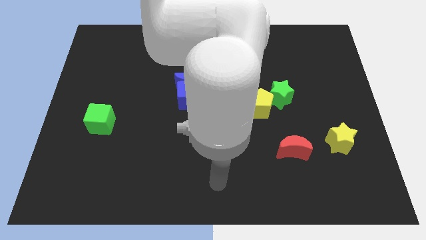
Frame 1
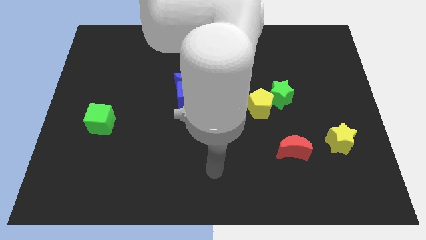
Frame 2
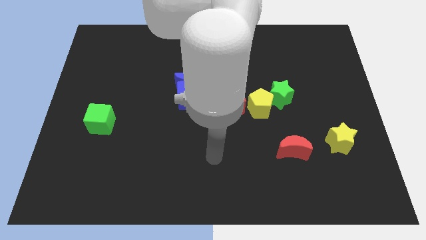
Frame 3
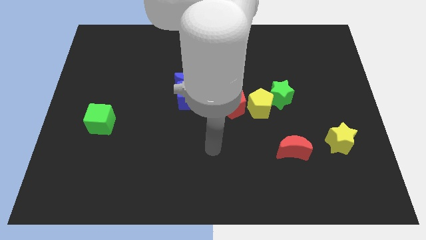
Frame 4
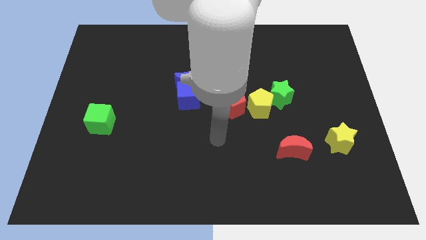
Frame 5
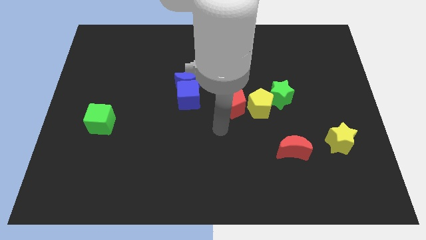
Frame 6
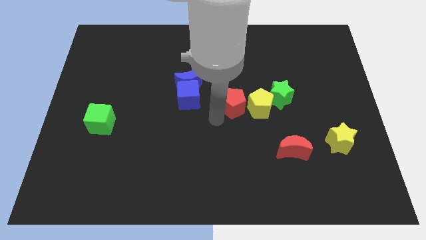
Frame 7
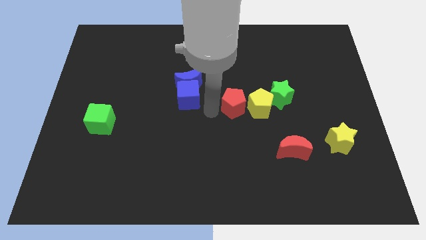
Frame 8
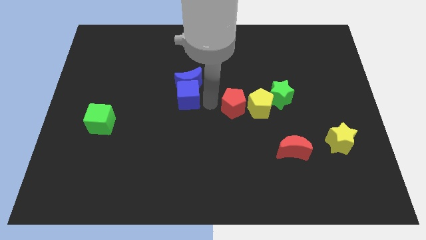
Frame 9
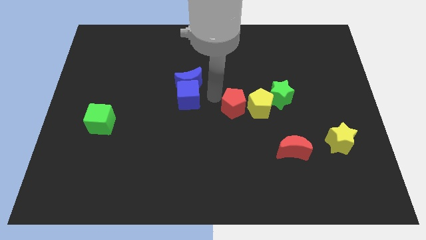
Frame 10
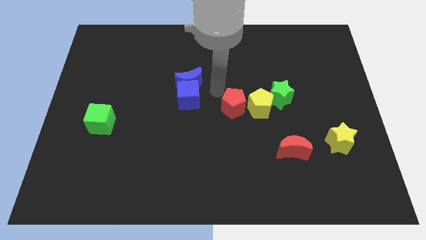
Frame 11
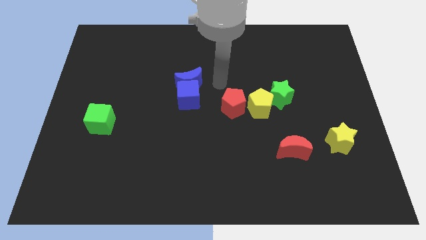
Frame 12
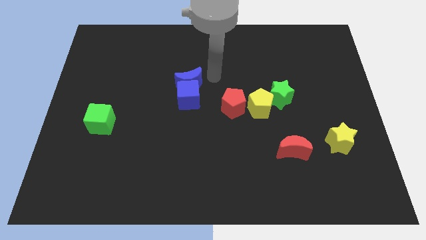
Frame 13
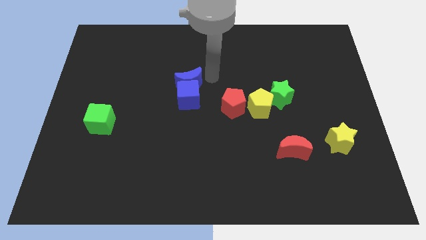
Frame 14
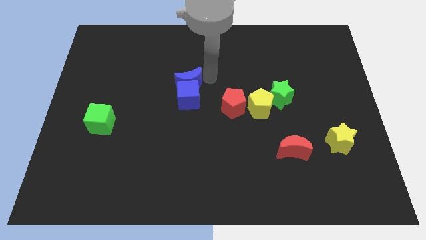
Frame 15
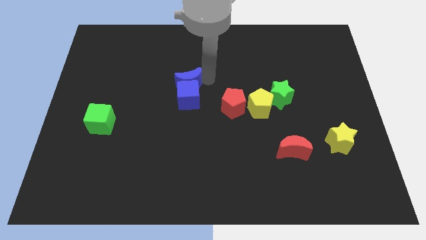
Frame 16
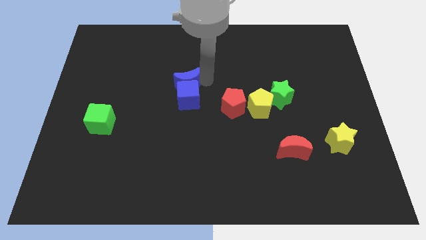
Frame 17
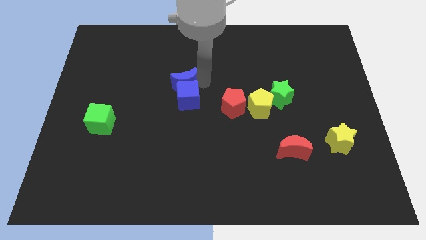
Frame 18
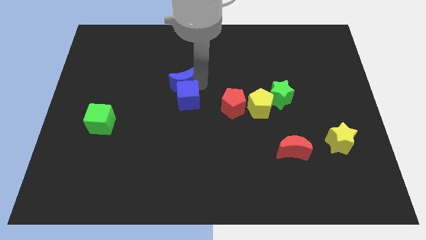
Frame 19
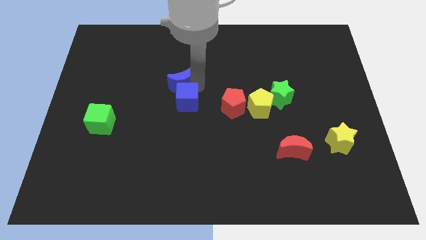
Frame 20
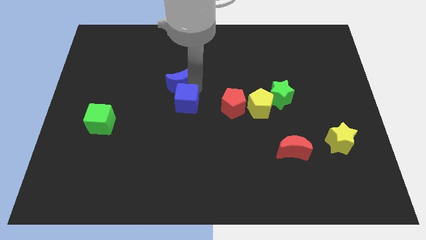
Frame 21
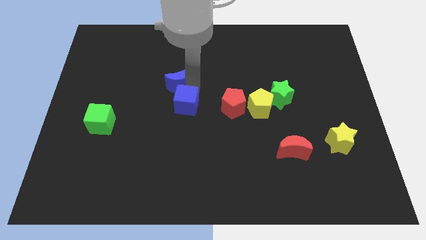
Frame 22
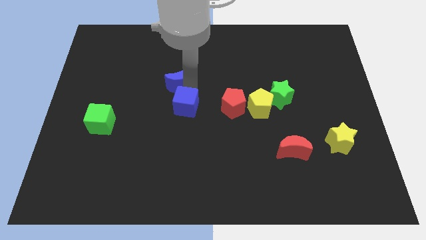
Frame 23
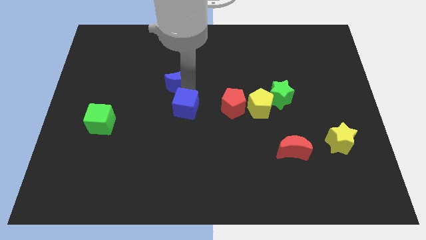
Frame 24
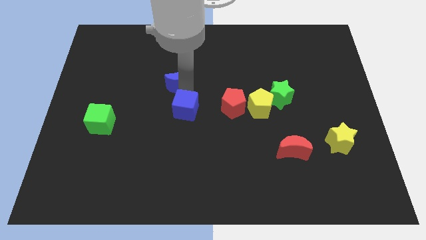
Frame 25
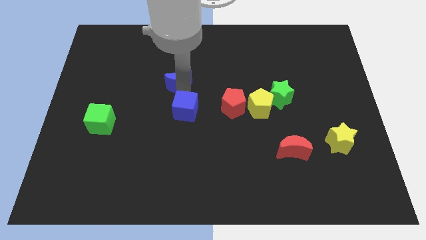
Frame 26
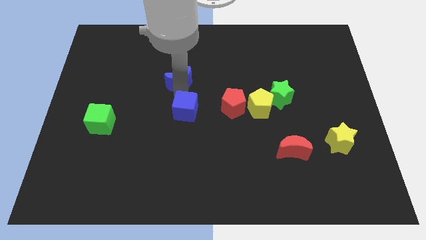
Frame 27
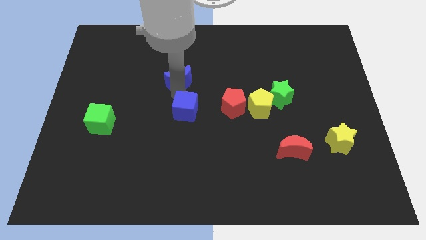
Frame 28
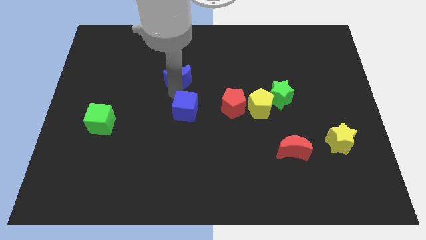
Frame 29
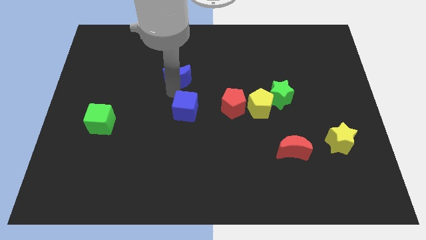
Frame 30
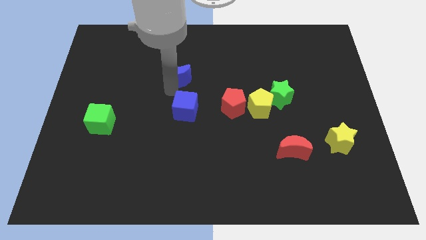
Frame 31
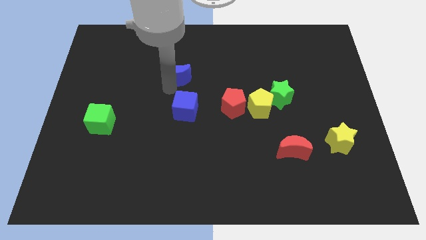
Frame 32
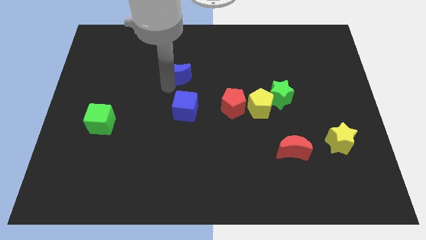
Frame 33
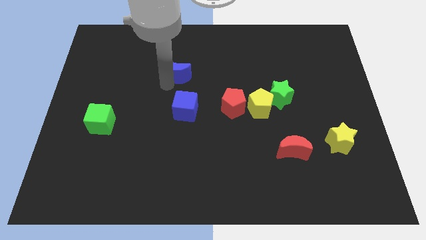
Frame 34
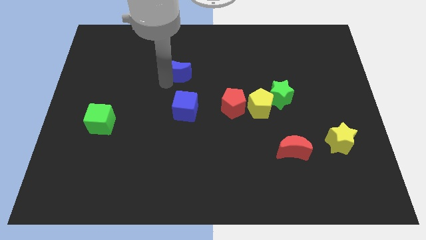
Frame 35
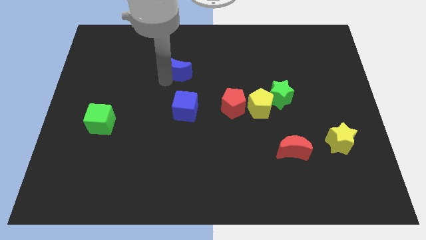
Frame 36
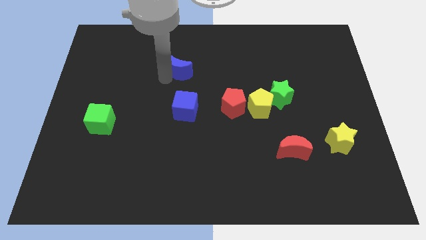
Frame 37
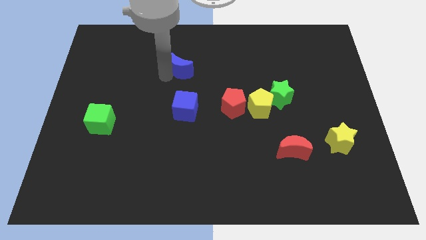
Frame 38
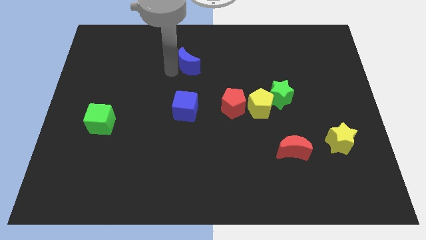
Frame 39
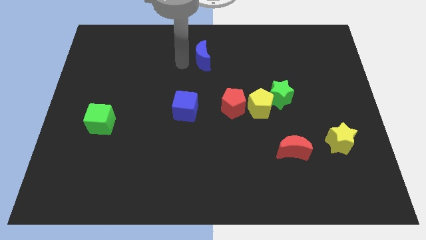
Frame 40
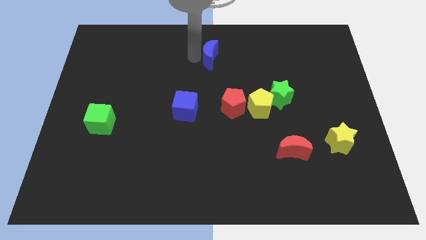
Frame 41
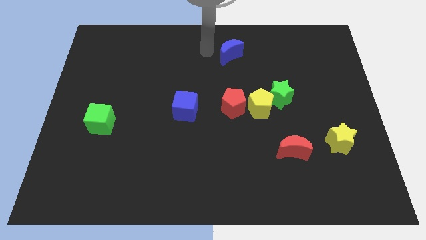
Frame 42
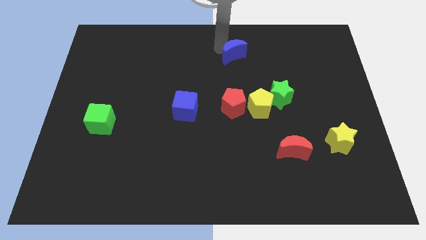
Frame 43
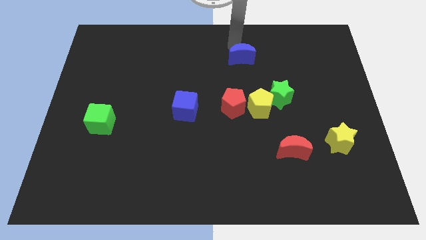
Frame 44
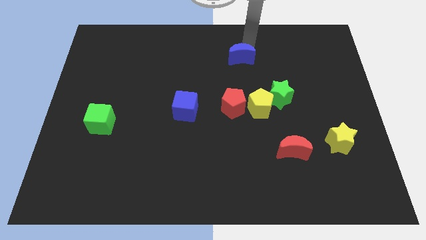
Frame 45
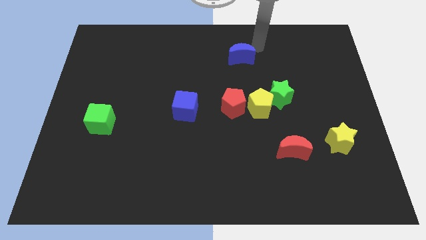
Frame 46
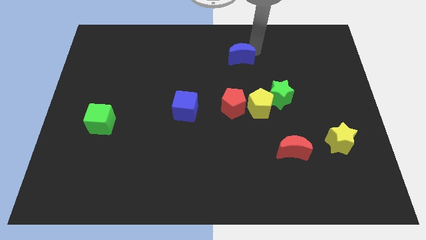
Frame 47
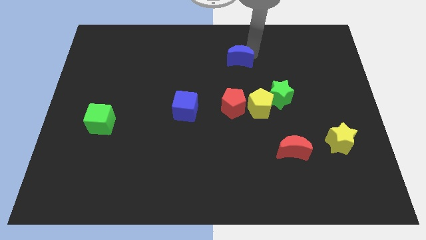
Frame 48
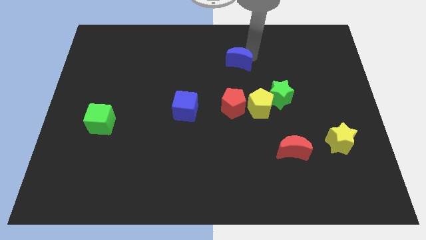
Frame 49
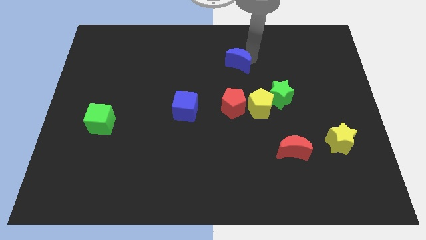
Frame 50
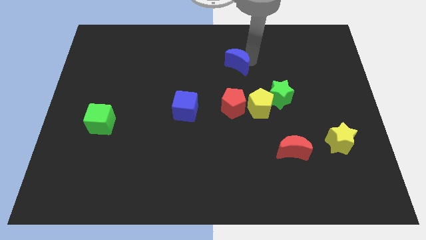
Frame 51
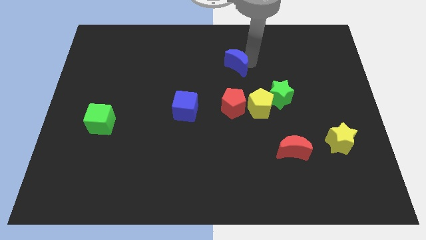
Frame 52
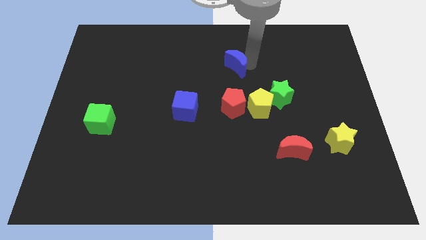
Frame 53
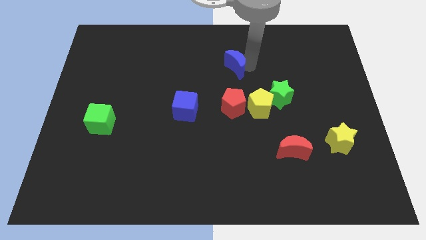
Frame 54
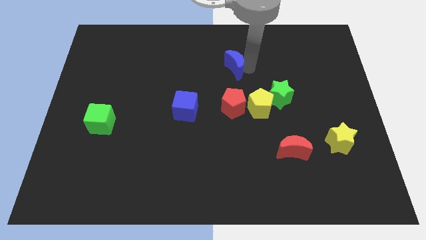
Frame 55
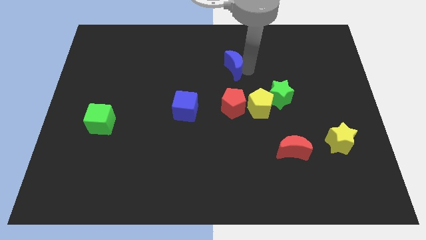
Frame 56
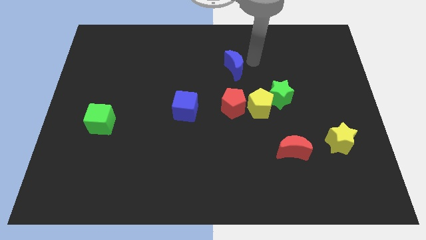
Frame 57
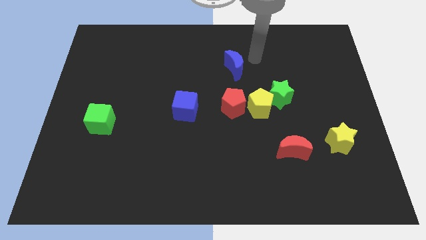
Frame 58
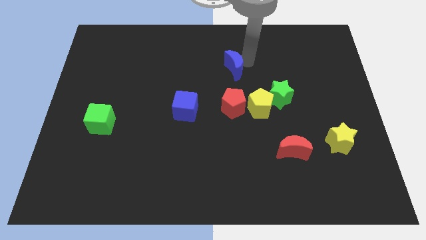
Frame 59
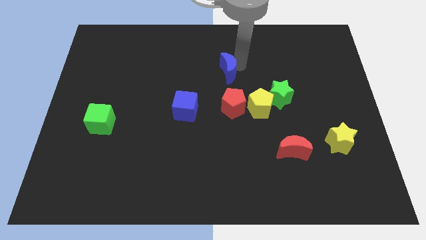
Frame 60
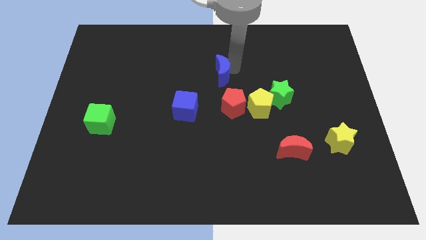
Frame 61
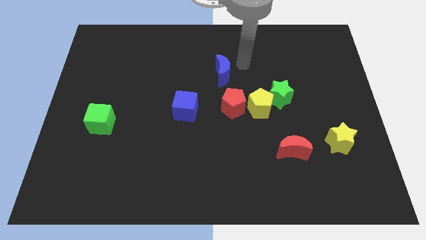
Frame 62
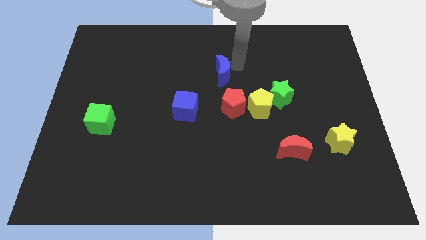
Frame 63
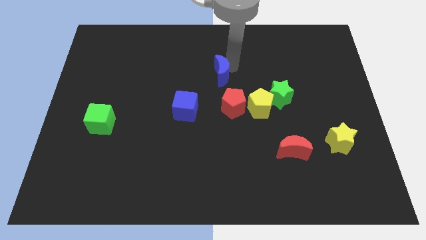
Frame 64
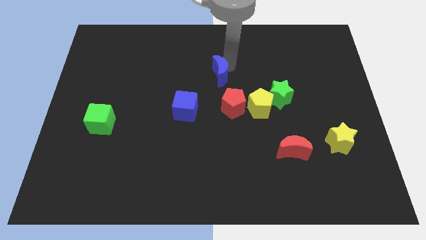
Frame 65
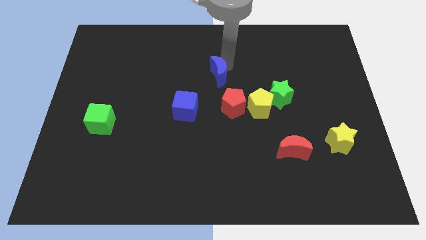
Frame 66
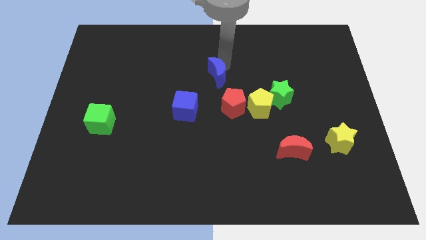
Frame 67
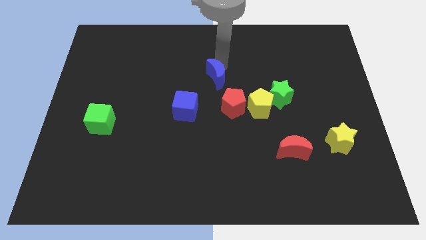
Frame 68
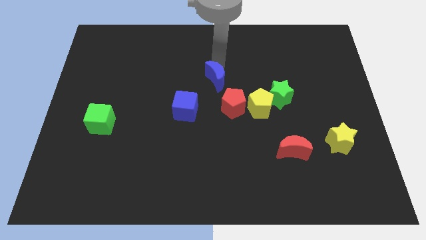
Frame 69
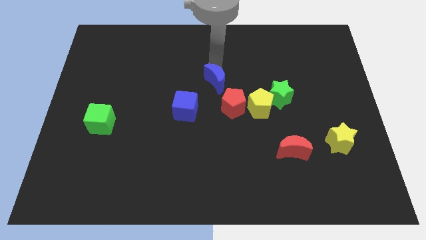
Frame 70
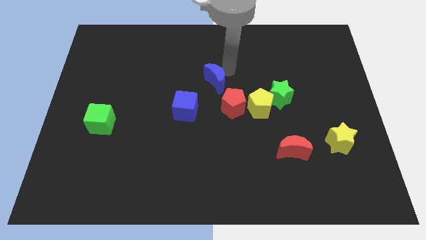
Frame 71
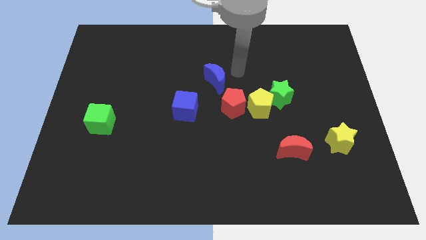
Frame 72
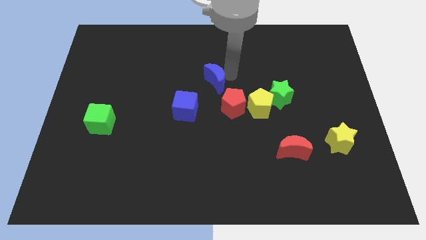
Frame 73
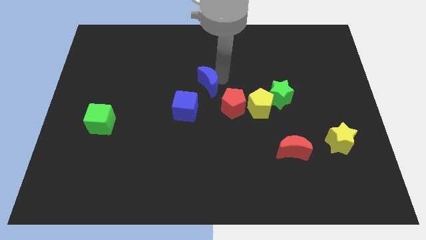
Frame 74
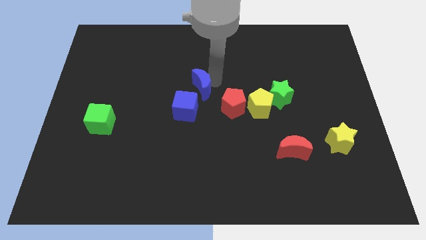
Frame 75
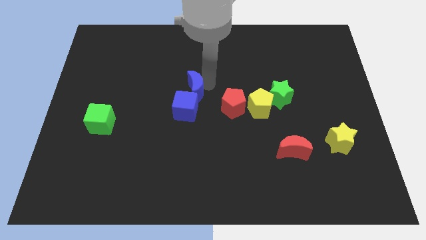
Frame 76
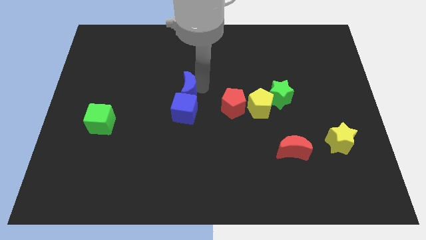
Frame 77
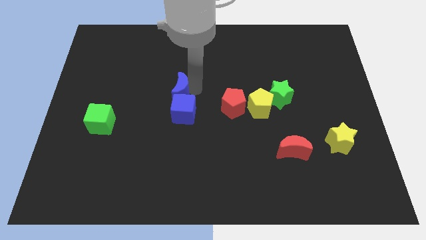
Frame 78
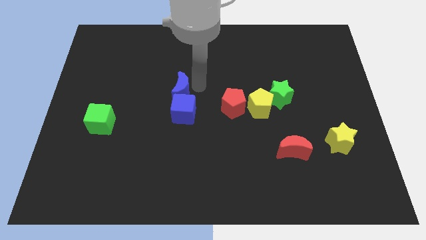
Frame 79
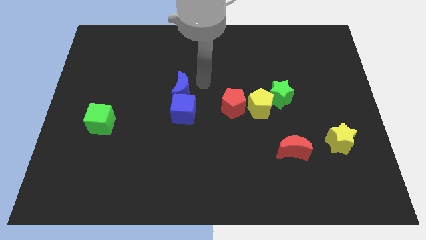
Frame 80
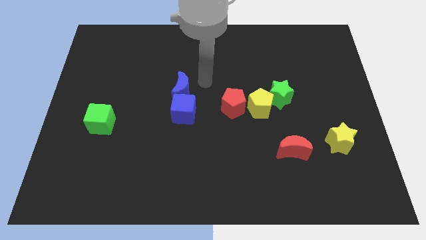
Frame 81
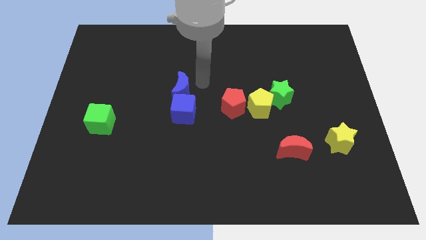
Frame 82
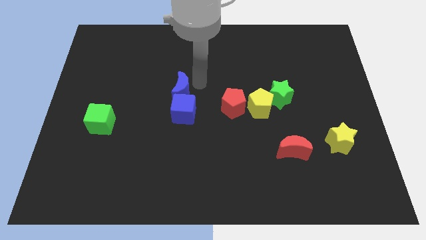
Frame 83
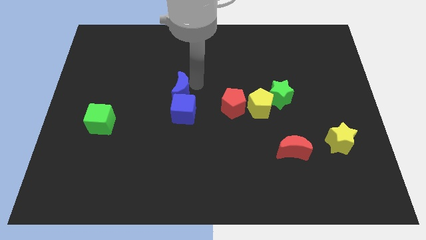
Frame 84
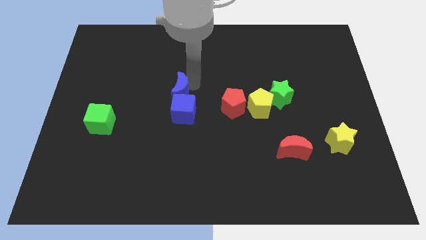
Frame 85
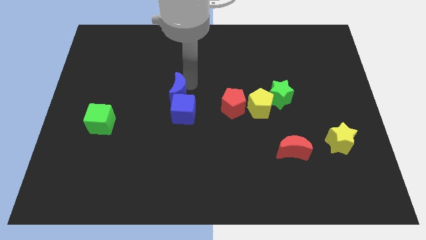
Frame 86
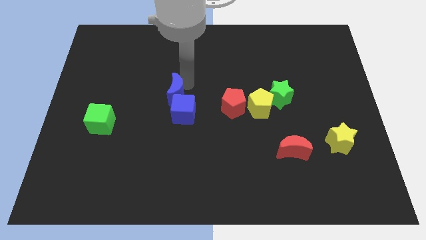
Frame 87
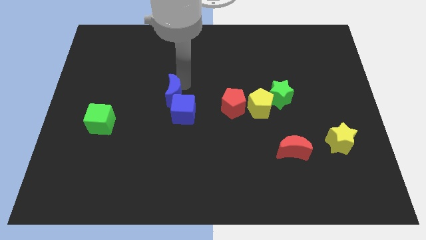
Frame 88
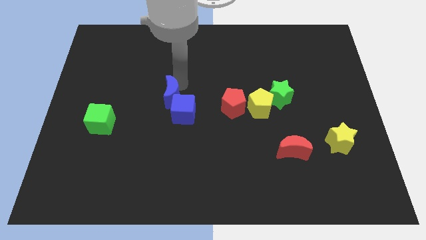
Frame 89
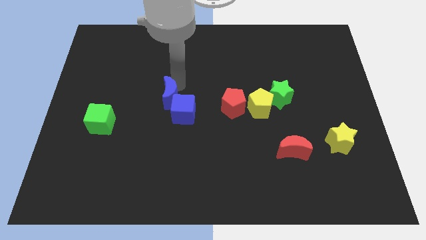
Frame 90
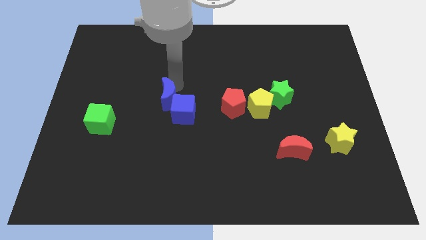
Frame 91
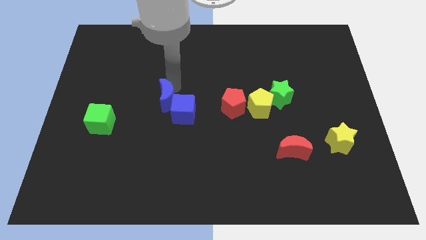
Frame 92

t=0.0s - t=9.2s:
slide the blue moon diagonally down and to the left slightly
